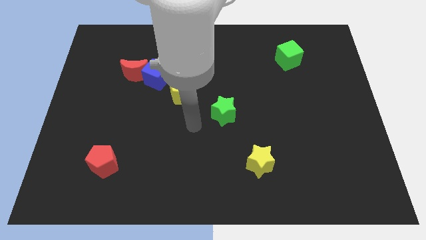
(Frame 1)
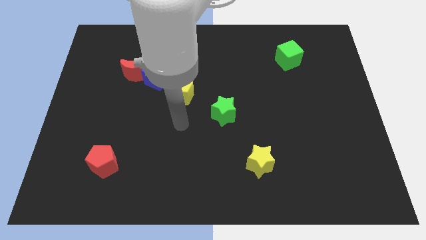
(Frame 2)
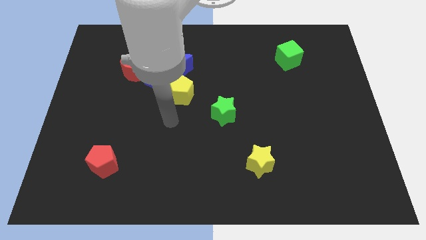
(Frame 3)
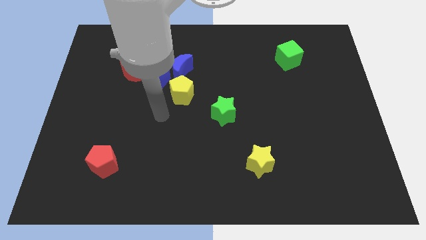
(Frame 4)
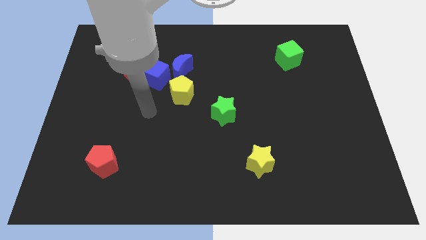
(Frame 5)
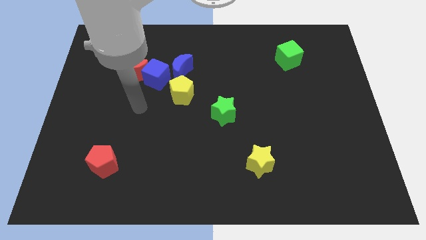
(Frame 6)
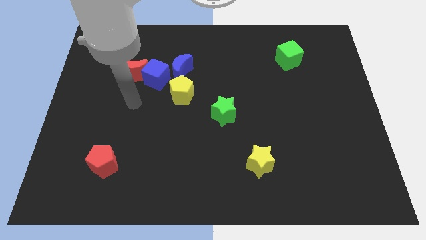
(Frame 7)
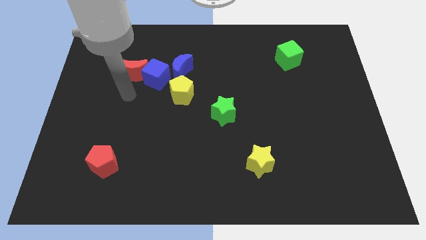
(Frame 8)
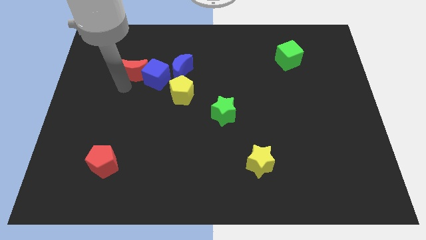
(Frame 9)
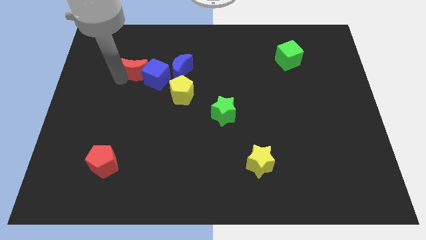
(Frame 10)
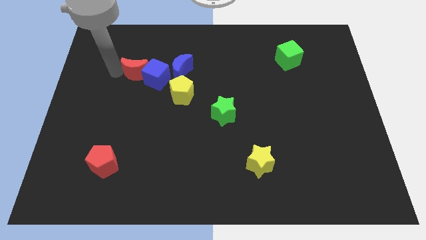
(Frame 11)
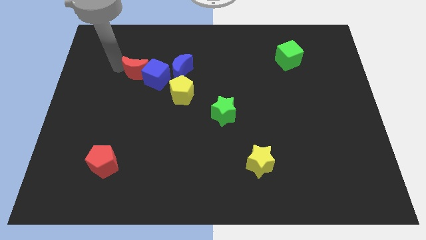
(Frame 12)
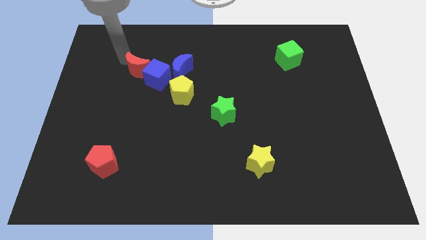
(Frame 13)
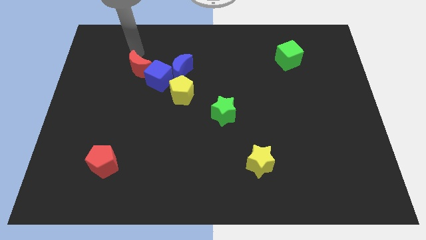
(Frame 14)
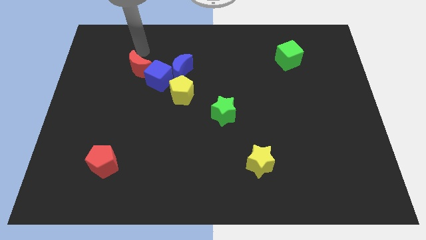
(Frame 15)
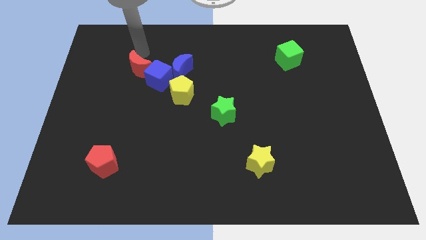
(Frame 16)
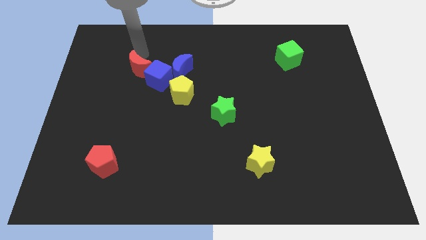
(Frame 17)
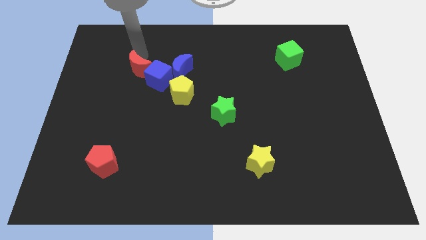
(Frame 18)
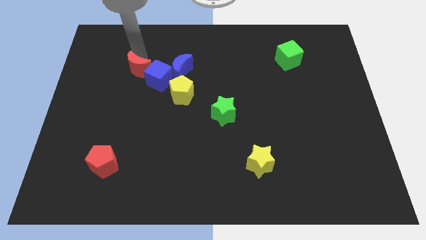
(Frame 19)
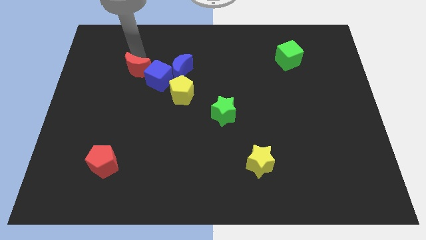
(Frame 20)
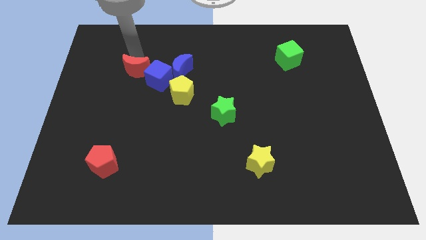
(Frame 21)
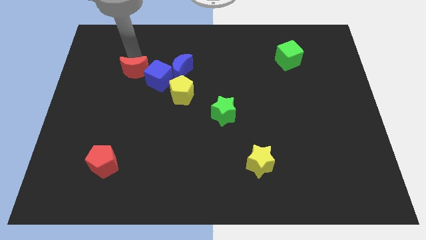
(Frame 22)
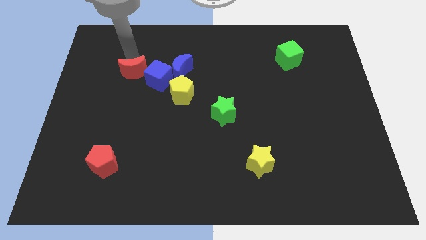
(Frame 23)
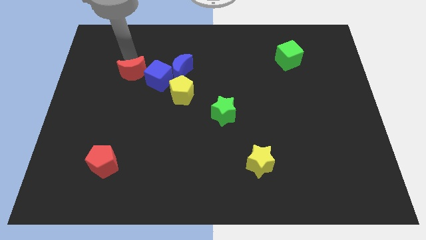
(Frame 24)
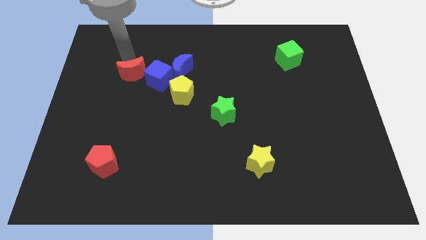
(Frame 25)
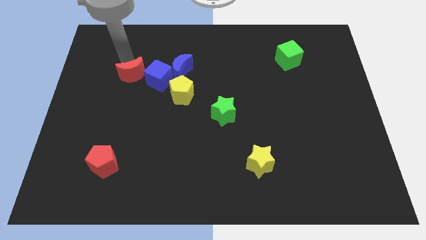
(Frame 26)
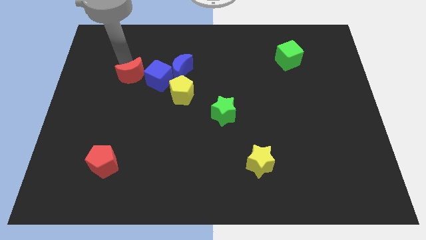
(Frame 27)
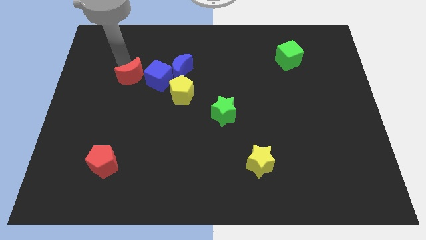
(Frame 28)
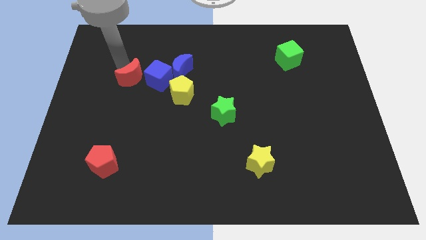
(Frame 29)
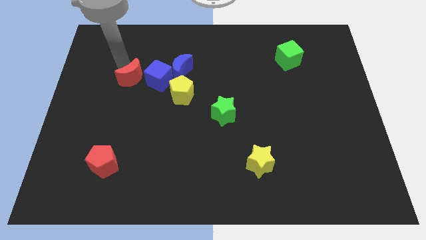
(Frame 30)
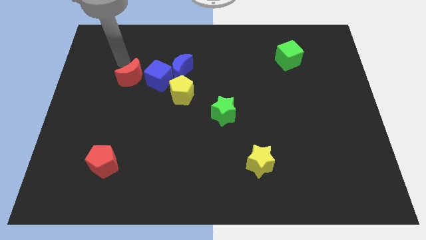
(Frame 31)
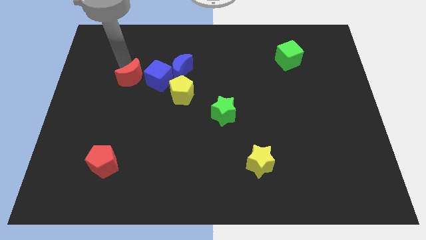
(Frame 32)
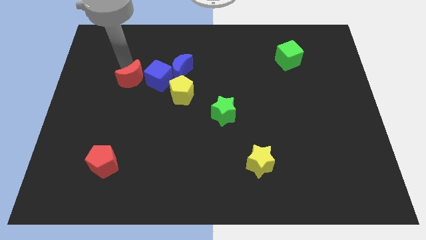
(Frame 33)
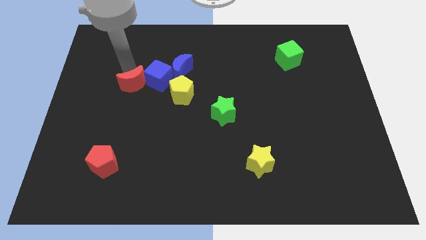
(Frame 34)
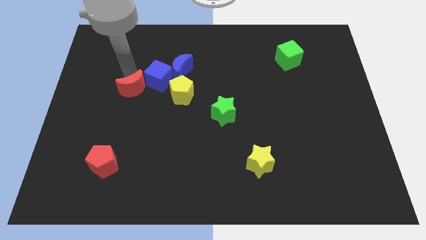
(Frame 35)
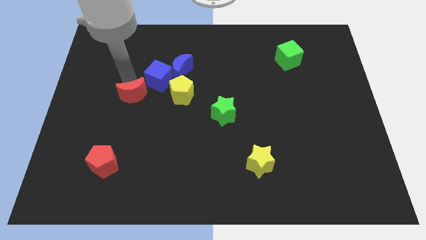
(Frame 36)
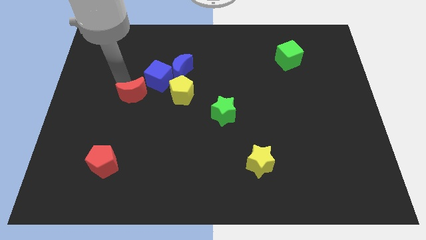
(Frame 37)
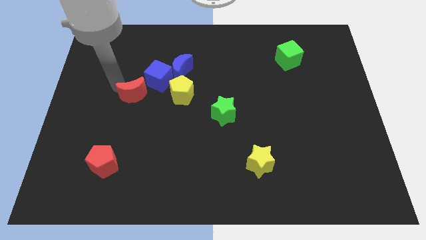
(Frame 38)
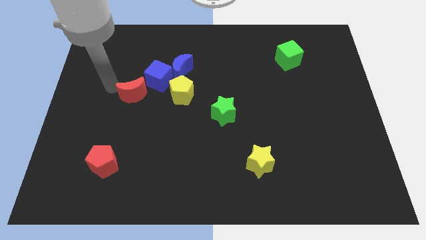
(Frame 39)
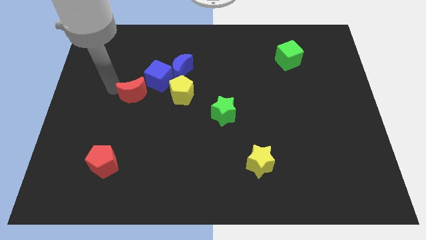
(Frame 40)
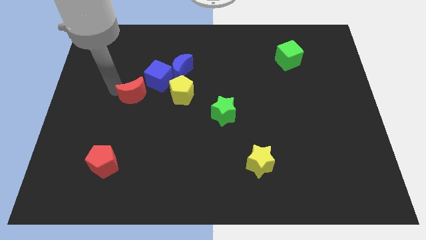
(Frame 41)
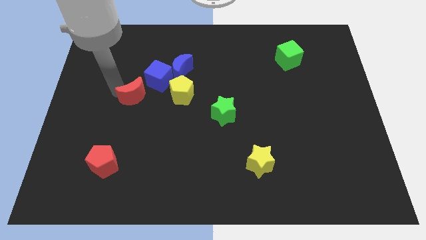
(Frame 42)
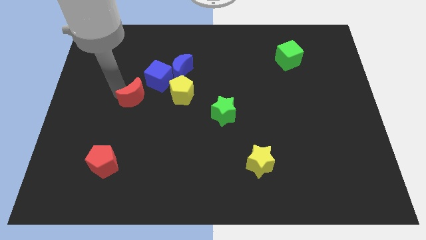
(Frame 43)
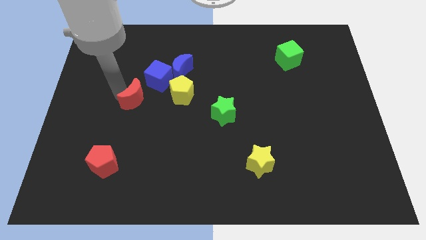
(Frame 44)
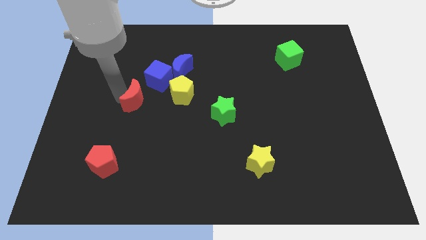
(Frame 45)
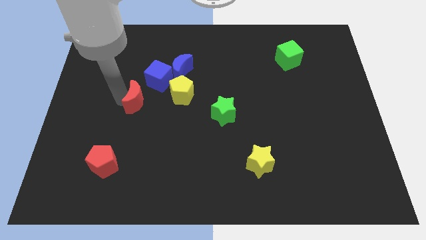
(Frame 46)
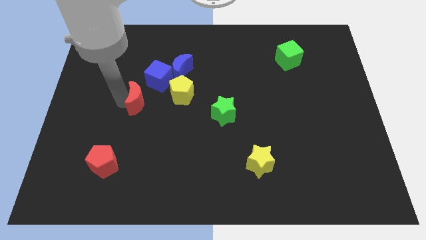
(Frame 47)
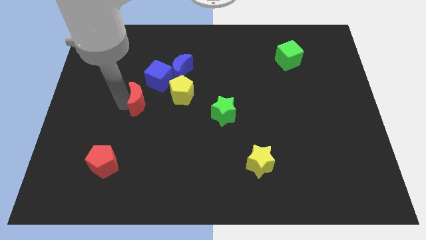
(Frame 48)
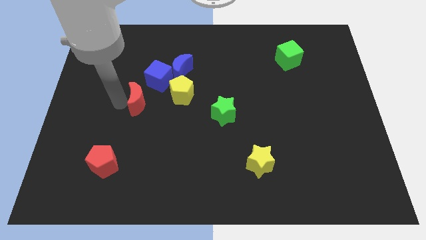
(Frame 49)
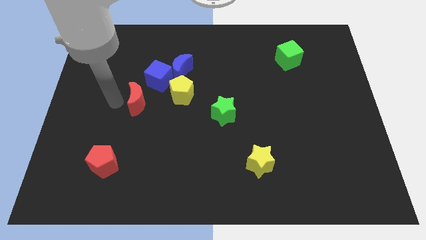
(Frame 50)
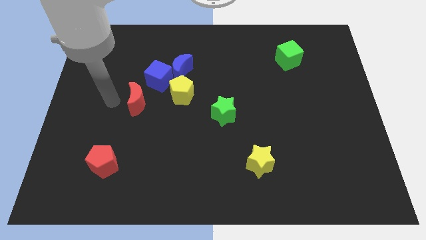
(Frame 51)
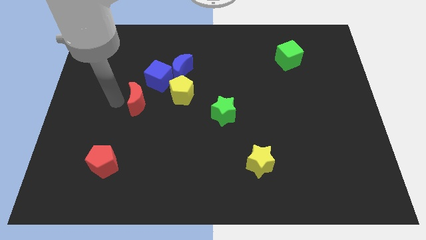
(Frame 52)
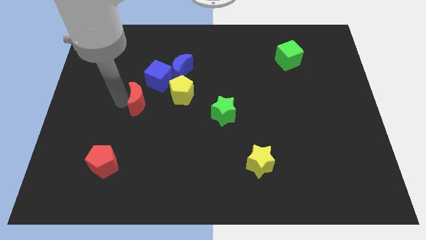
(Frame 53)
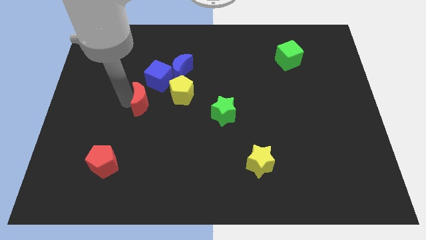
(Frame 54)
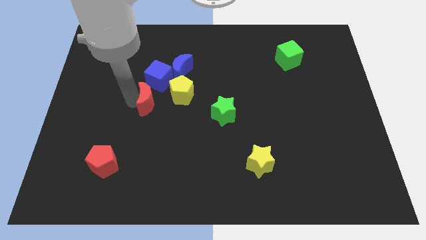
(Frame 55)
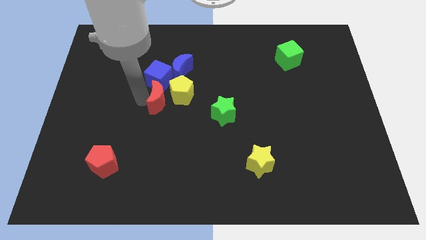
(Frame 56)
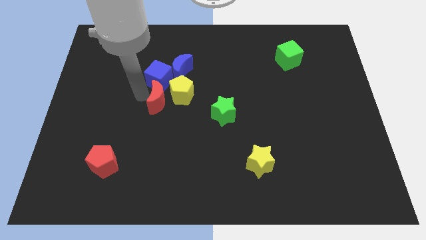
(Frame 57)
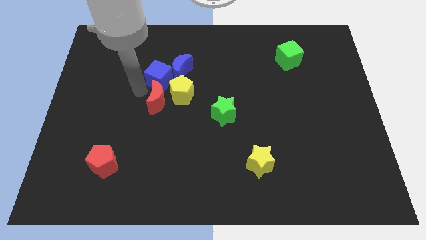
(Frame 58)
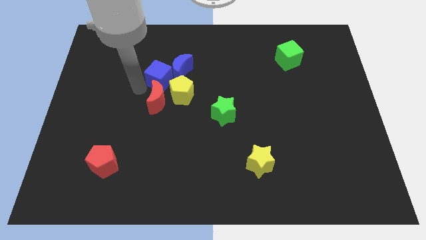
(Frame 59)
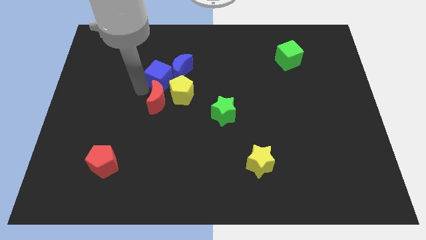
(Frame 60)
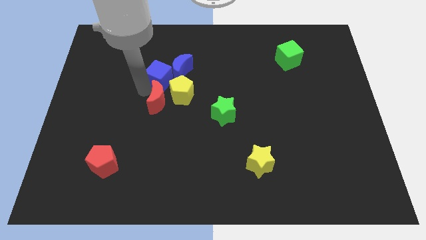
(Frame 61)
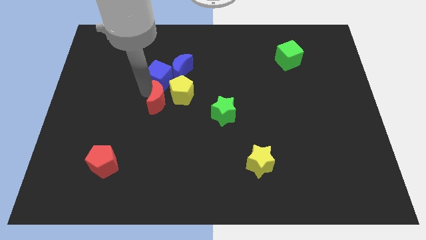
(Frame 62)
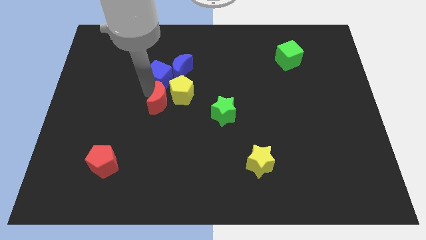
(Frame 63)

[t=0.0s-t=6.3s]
push the red moon left of the green star

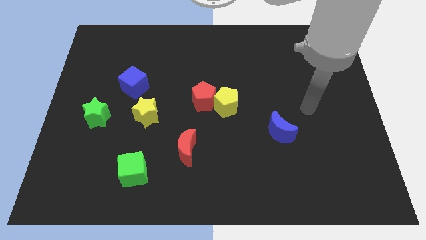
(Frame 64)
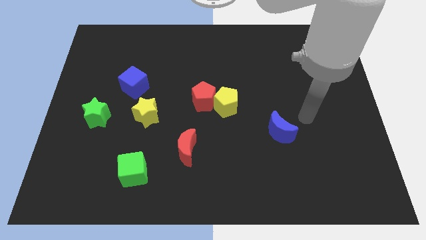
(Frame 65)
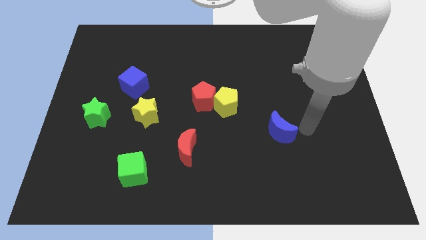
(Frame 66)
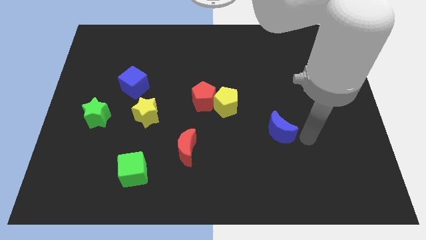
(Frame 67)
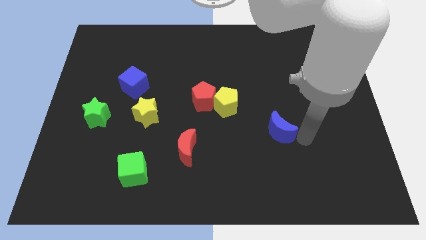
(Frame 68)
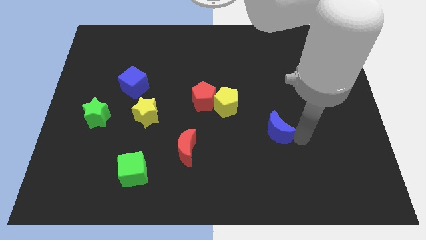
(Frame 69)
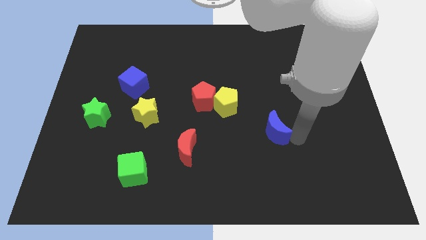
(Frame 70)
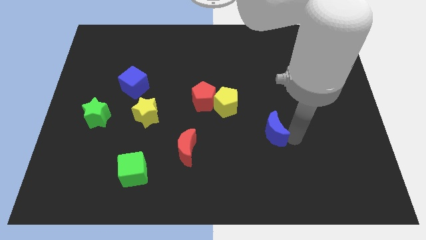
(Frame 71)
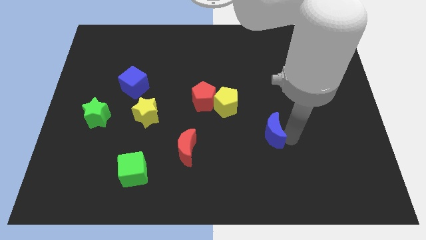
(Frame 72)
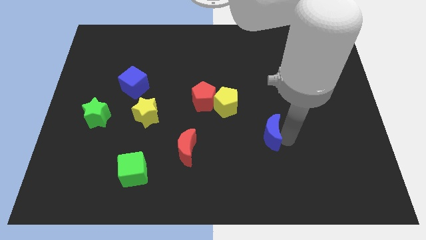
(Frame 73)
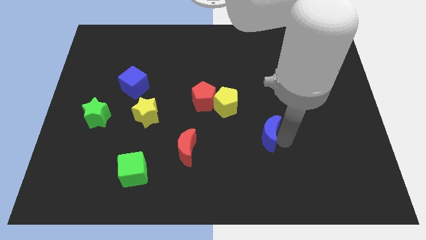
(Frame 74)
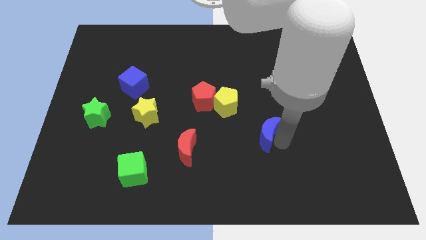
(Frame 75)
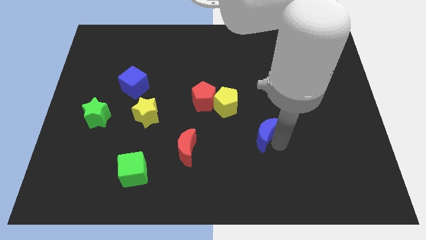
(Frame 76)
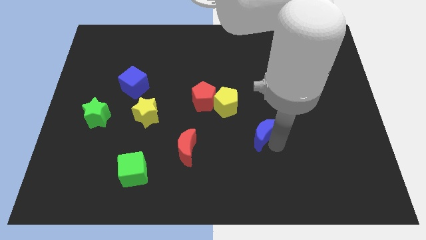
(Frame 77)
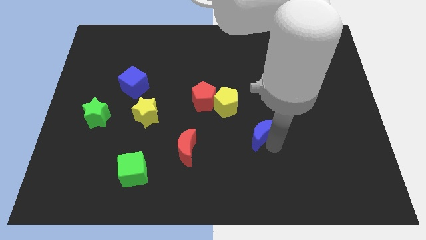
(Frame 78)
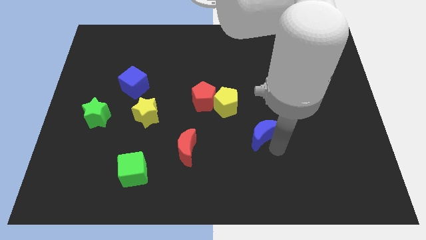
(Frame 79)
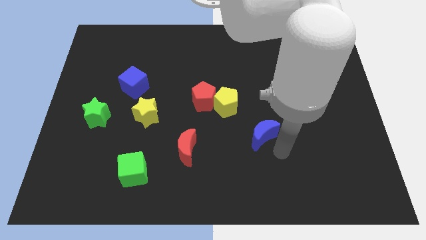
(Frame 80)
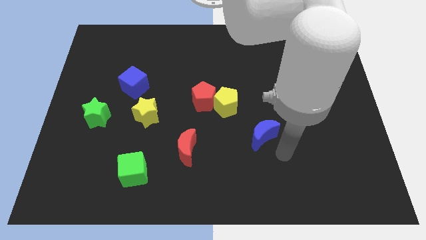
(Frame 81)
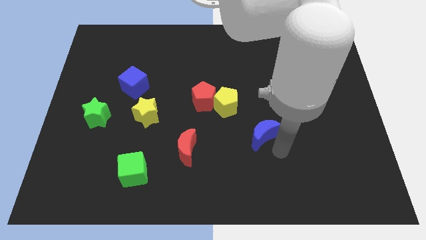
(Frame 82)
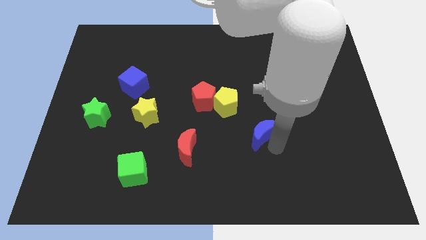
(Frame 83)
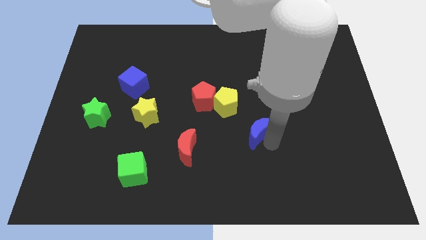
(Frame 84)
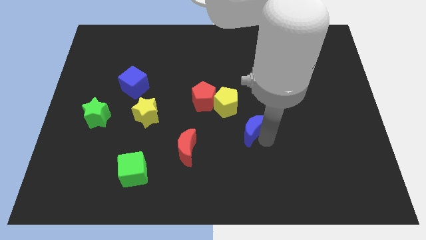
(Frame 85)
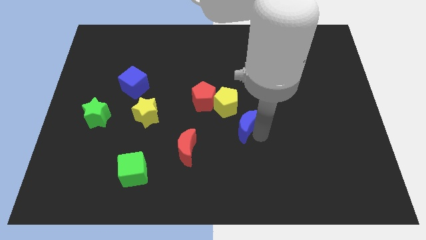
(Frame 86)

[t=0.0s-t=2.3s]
slide the blue moon to the bottom right side of the red pentagon
